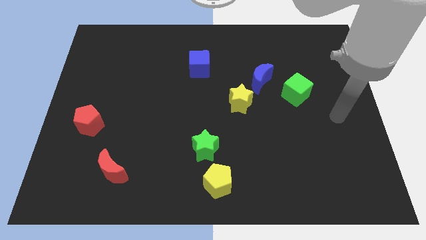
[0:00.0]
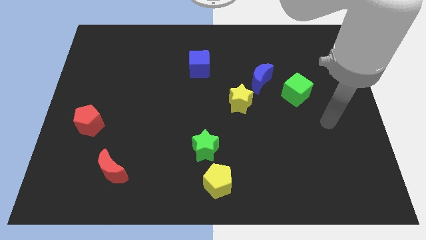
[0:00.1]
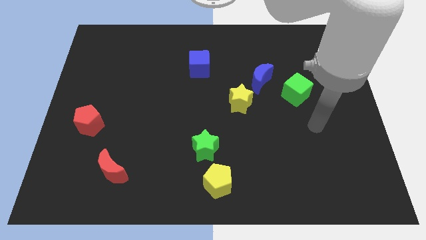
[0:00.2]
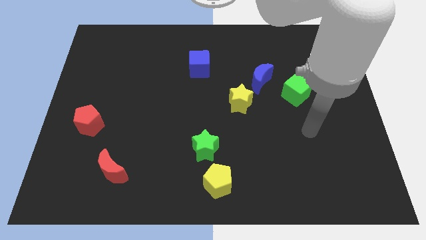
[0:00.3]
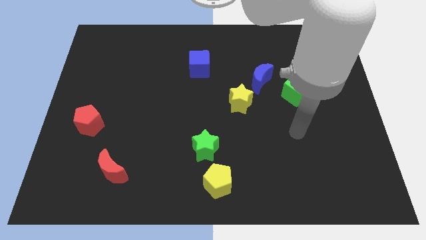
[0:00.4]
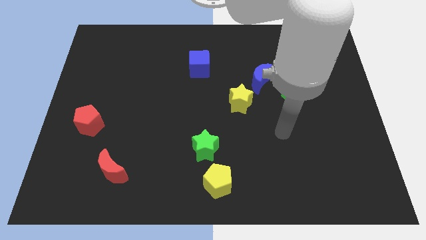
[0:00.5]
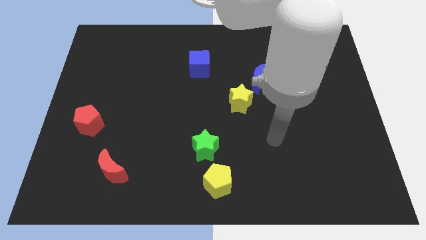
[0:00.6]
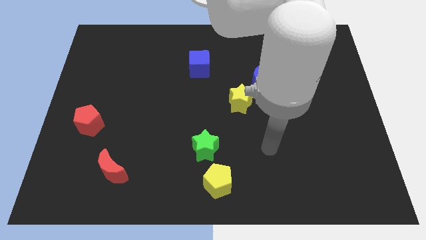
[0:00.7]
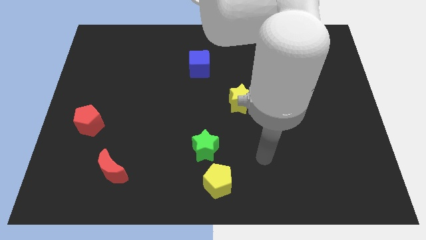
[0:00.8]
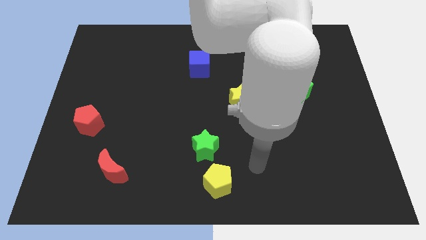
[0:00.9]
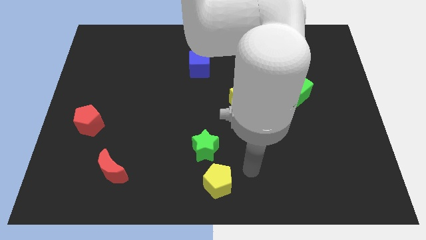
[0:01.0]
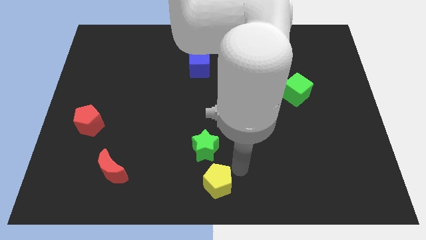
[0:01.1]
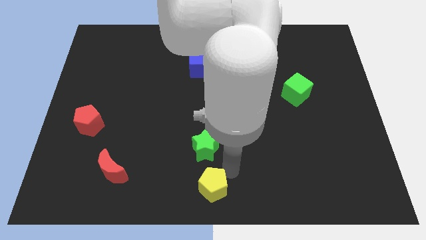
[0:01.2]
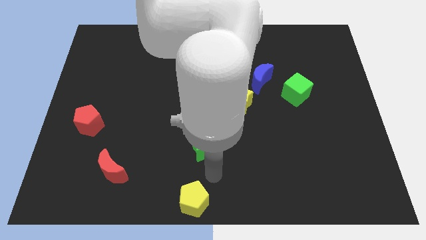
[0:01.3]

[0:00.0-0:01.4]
move the green star away from the yellow pentagon

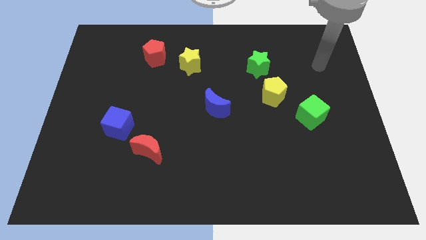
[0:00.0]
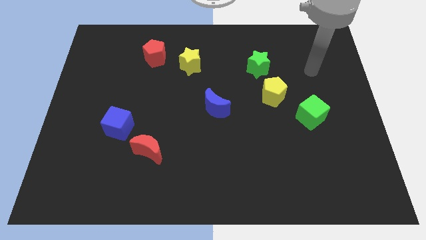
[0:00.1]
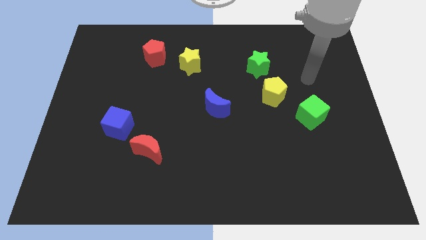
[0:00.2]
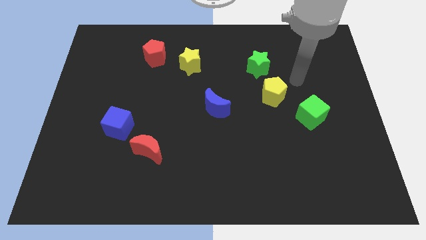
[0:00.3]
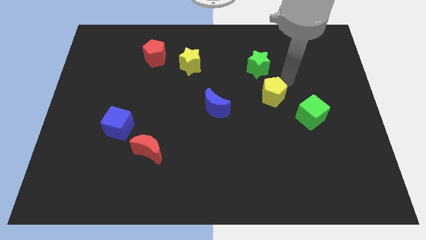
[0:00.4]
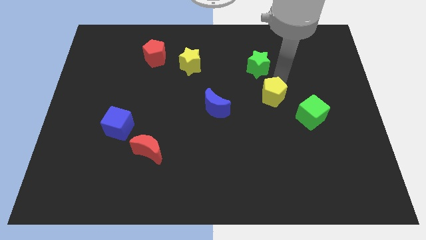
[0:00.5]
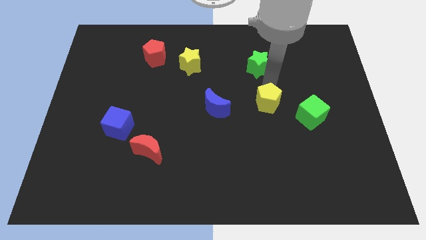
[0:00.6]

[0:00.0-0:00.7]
pull the green star apart from the yellow pentagon

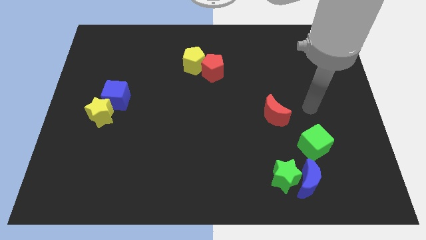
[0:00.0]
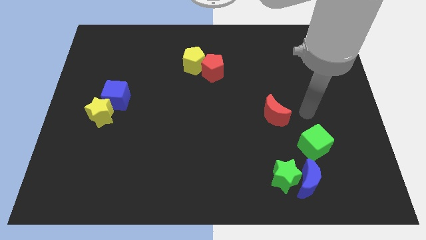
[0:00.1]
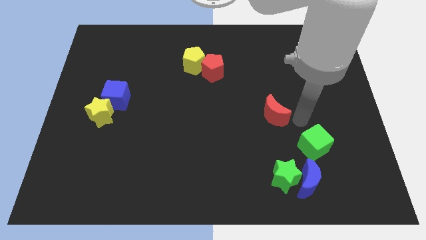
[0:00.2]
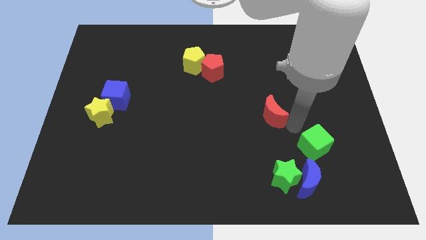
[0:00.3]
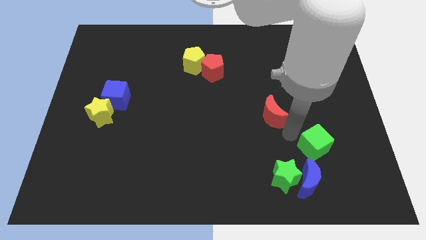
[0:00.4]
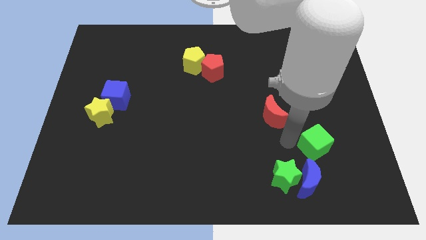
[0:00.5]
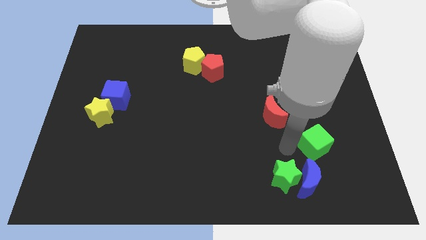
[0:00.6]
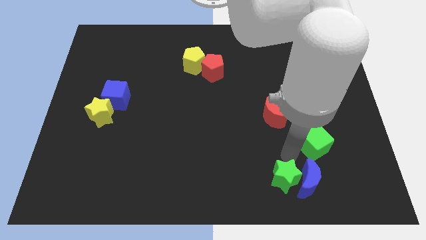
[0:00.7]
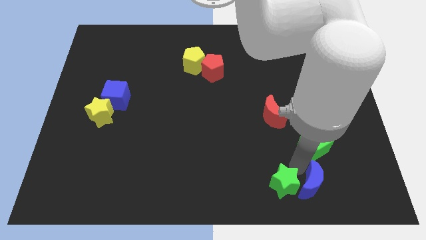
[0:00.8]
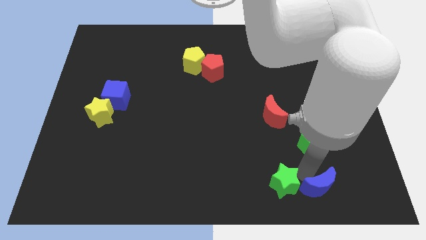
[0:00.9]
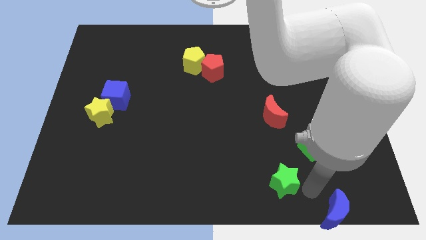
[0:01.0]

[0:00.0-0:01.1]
move the green star away from the blue moon

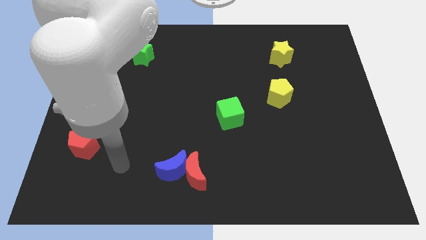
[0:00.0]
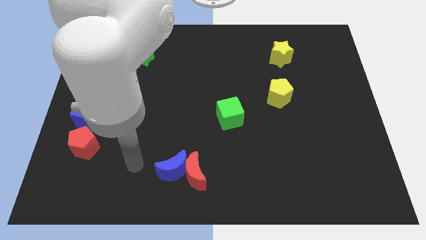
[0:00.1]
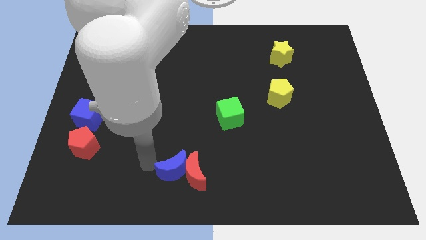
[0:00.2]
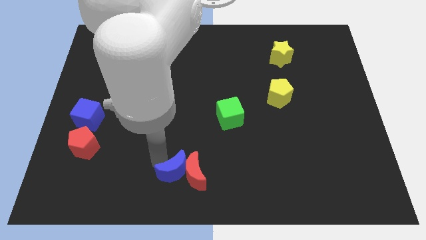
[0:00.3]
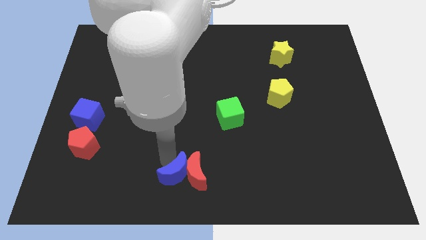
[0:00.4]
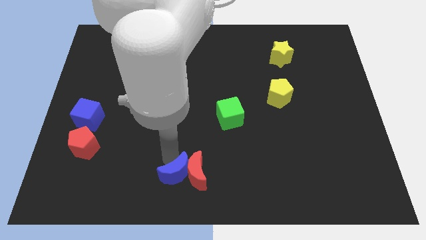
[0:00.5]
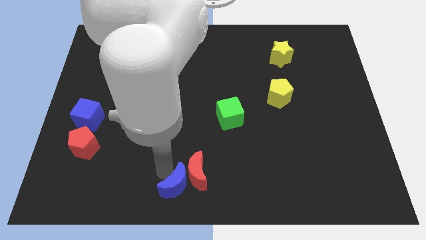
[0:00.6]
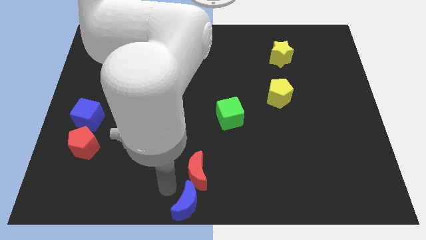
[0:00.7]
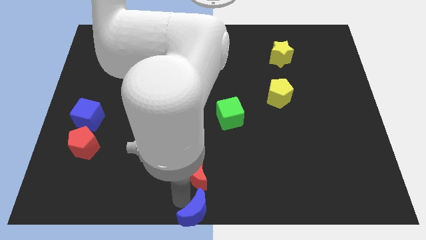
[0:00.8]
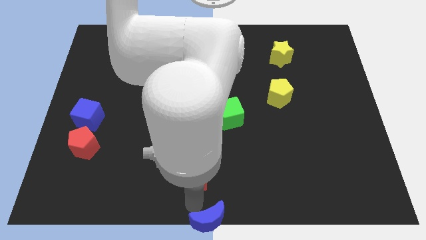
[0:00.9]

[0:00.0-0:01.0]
pull the red moon apart from the blue moon

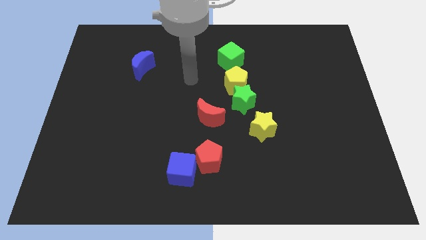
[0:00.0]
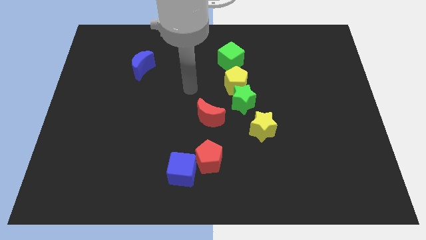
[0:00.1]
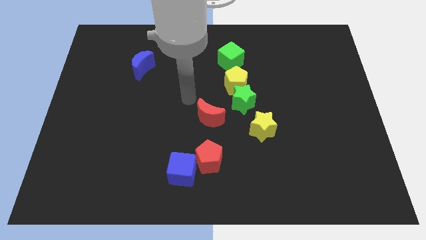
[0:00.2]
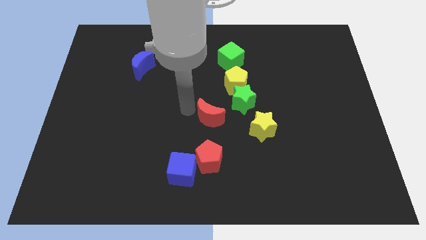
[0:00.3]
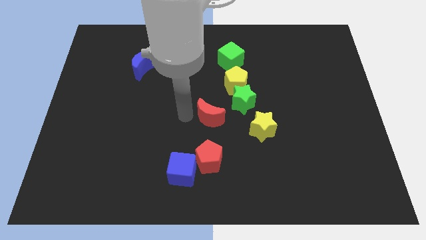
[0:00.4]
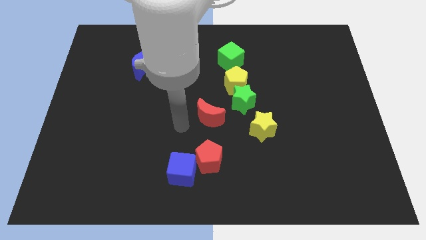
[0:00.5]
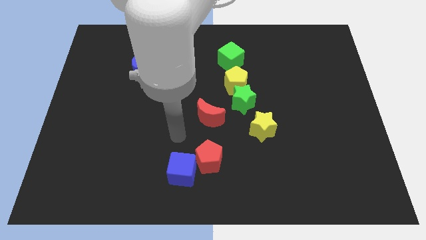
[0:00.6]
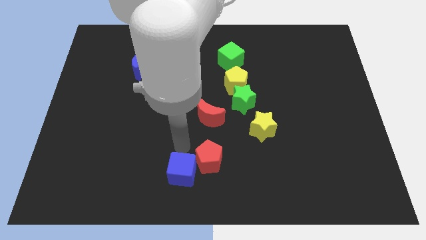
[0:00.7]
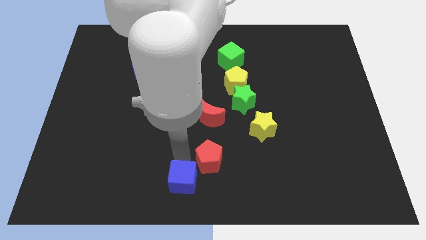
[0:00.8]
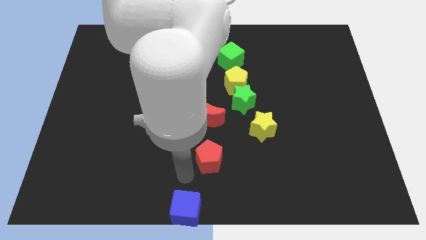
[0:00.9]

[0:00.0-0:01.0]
move the red pentagon away from the blue cube

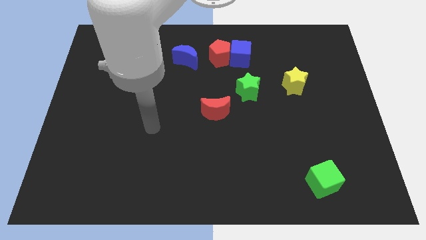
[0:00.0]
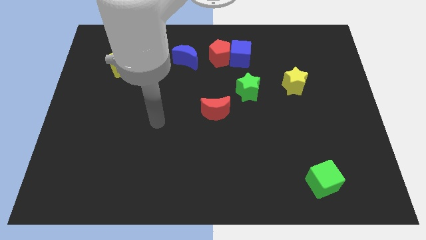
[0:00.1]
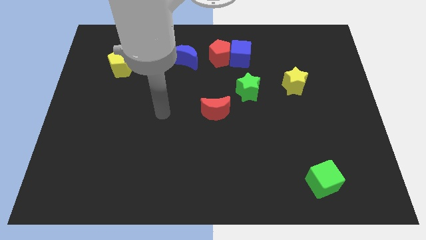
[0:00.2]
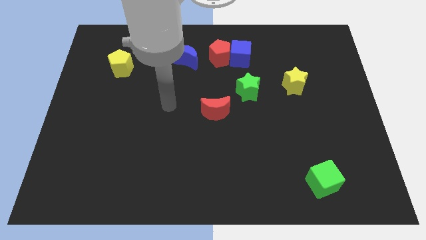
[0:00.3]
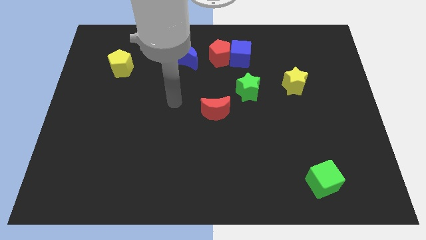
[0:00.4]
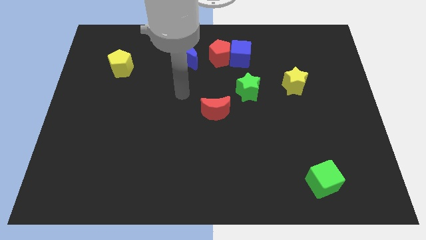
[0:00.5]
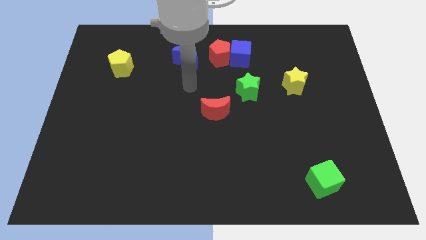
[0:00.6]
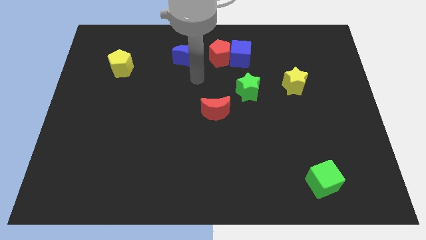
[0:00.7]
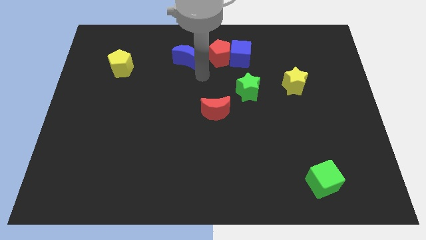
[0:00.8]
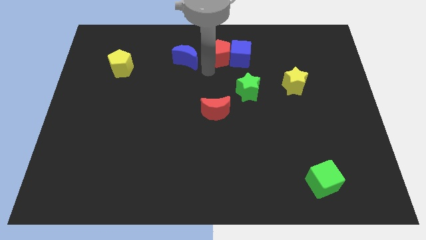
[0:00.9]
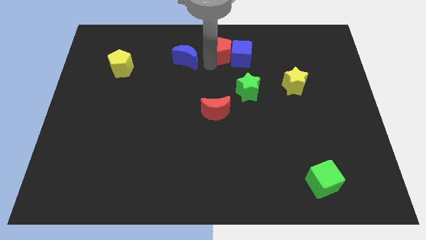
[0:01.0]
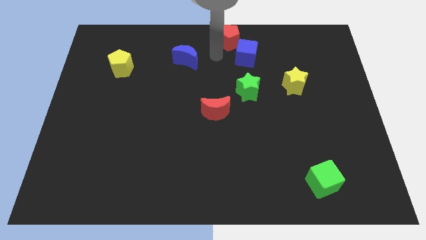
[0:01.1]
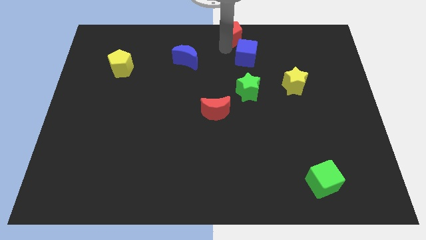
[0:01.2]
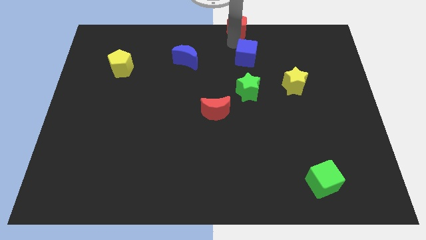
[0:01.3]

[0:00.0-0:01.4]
move the blue cube away from the red pentagon

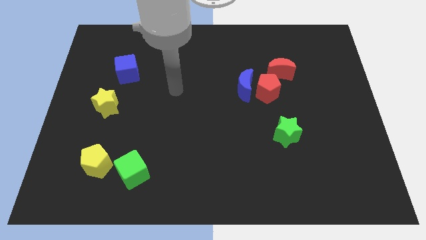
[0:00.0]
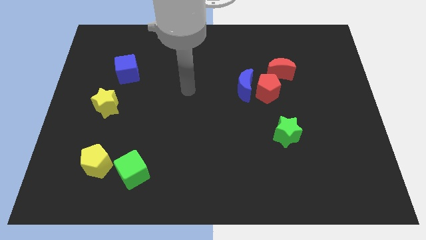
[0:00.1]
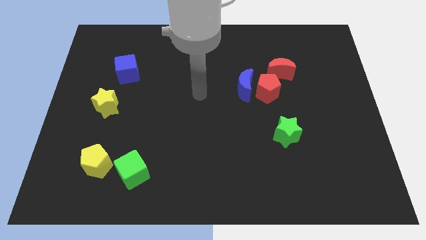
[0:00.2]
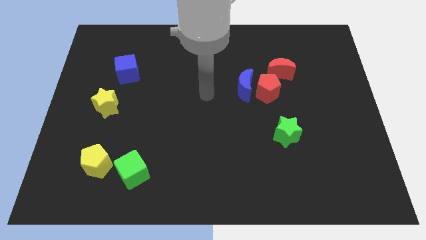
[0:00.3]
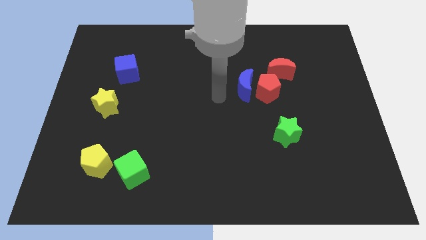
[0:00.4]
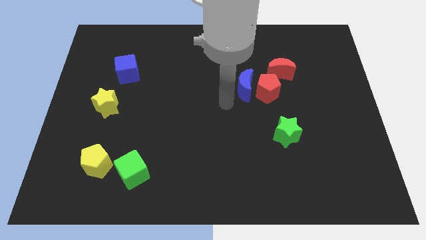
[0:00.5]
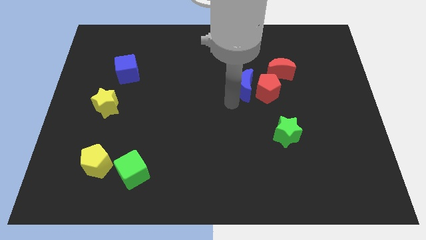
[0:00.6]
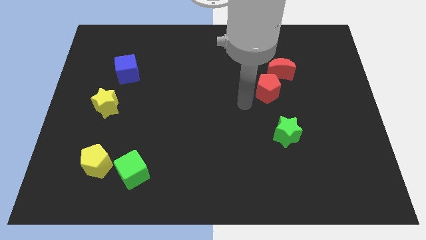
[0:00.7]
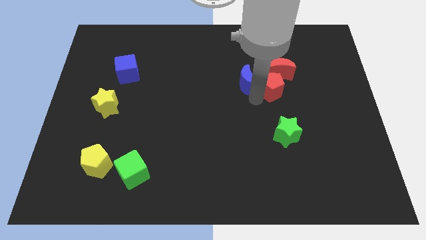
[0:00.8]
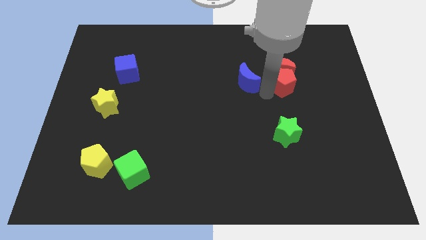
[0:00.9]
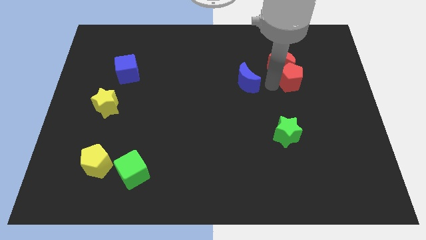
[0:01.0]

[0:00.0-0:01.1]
separate the blue moon from the red pentagon

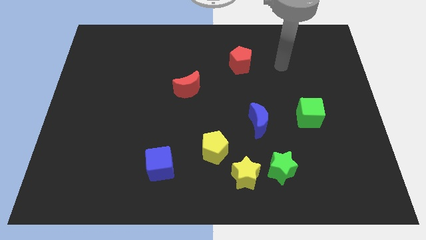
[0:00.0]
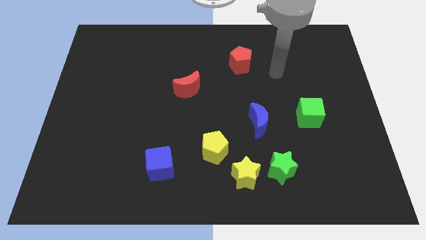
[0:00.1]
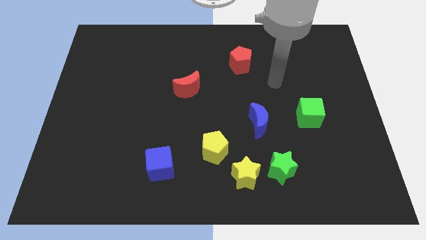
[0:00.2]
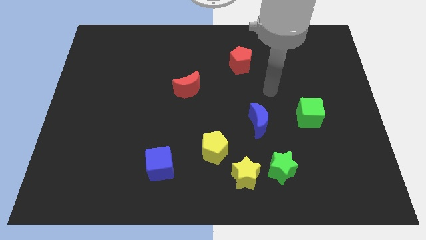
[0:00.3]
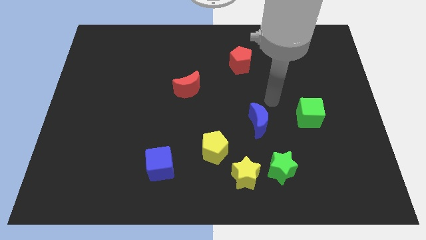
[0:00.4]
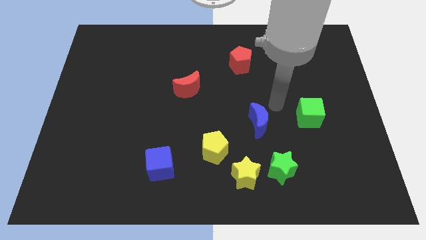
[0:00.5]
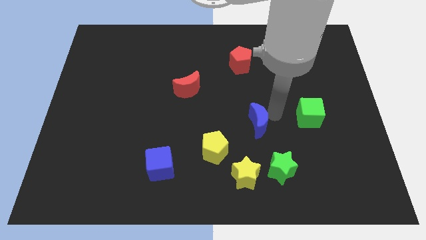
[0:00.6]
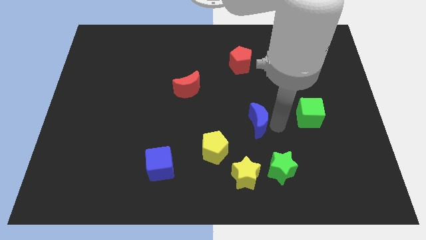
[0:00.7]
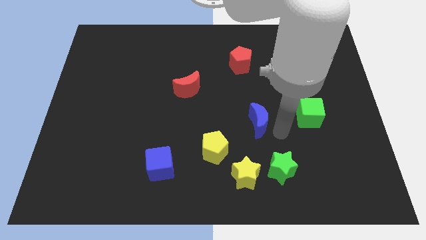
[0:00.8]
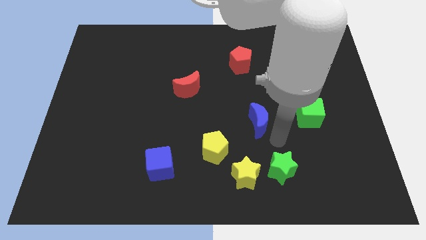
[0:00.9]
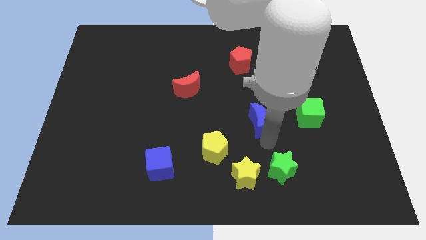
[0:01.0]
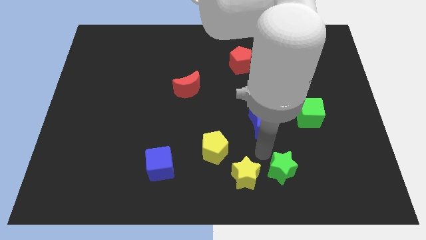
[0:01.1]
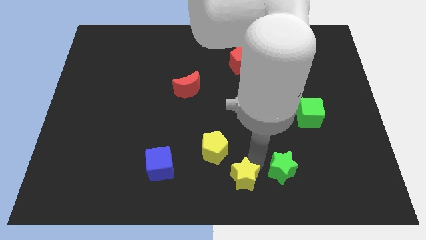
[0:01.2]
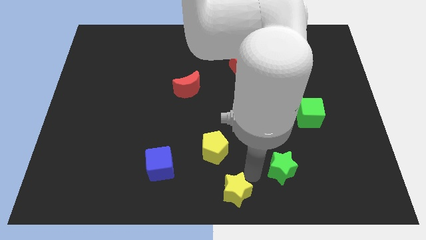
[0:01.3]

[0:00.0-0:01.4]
separate the green star from the yellow star
